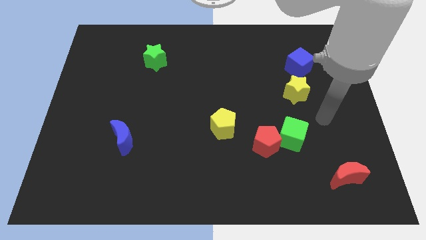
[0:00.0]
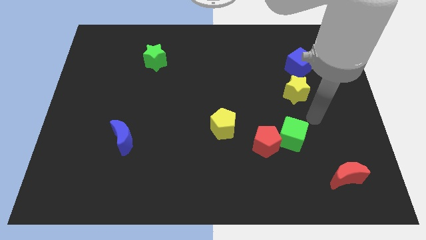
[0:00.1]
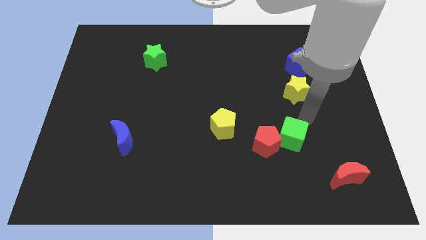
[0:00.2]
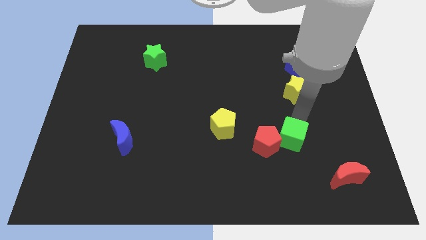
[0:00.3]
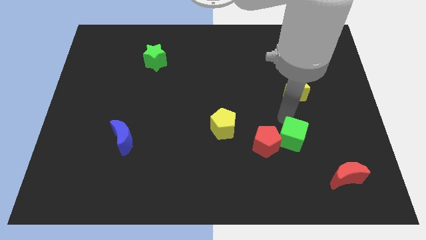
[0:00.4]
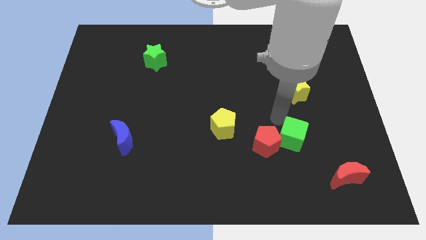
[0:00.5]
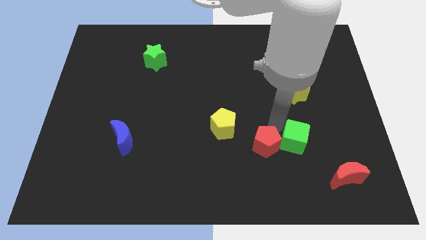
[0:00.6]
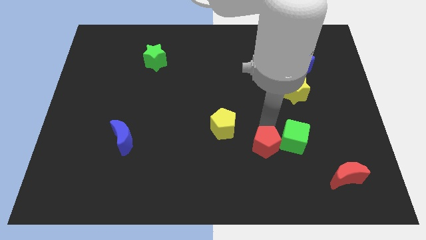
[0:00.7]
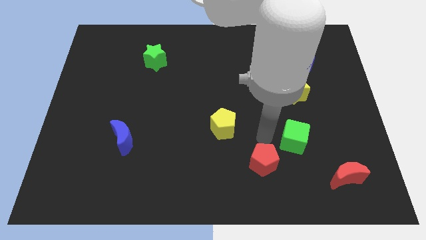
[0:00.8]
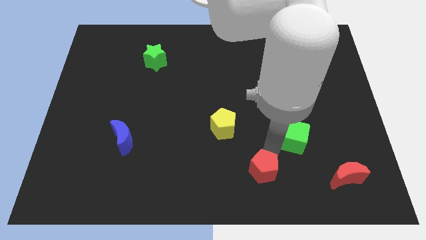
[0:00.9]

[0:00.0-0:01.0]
move the green cube away from the red pentagon

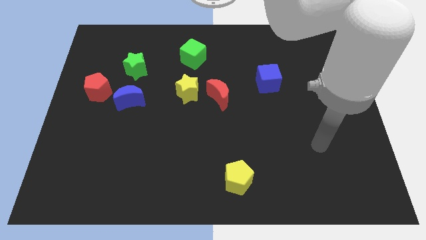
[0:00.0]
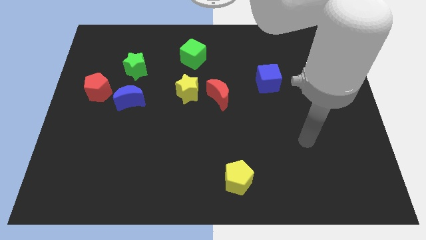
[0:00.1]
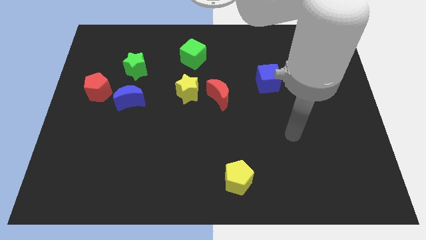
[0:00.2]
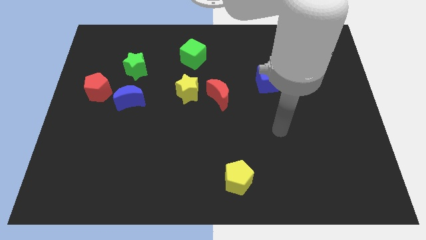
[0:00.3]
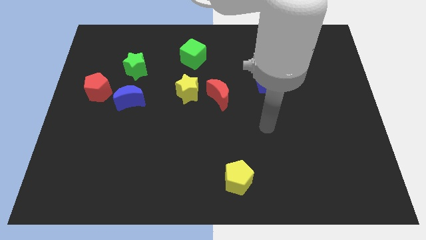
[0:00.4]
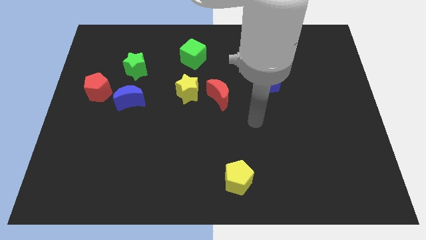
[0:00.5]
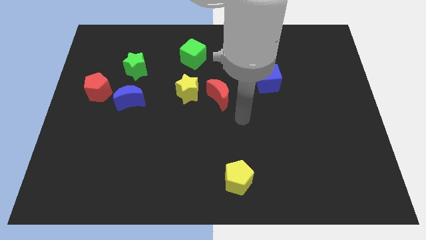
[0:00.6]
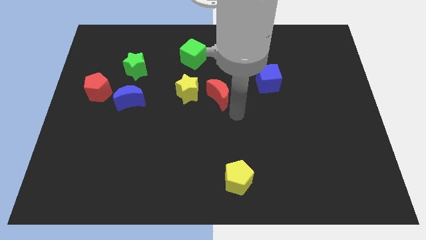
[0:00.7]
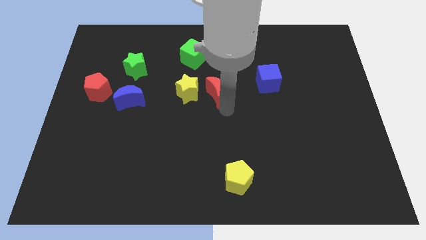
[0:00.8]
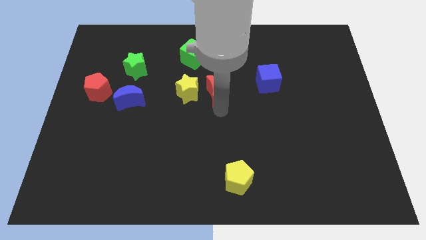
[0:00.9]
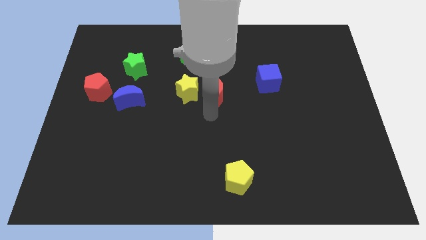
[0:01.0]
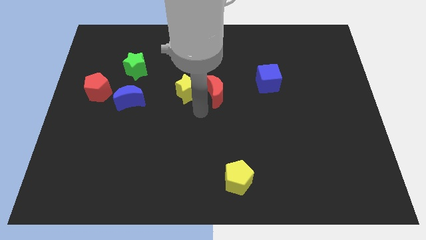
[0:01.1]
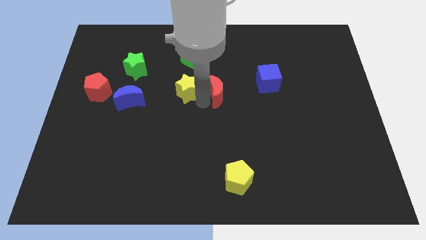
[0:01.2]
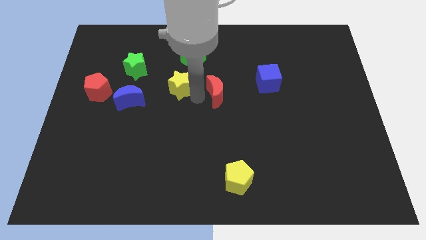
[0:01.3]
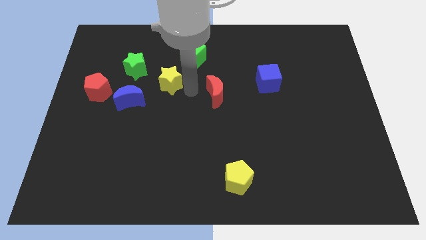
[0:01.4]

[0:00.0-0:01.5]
separate the red moon from the yellow star

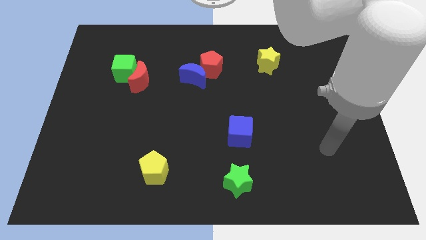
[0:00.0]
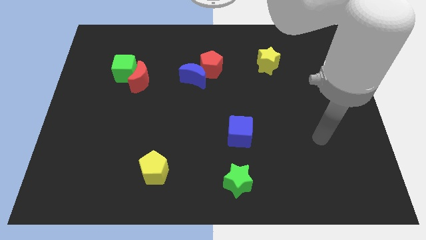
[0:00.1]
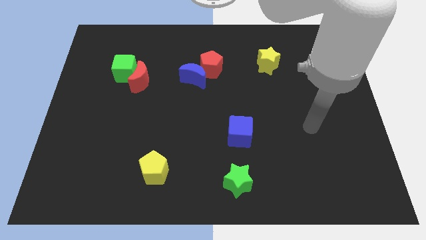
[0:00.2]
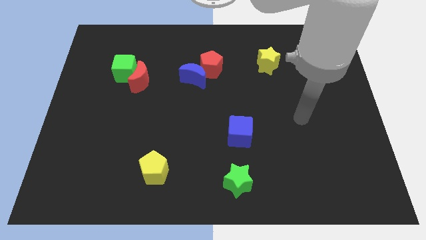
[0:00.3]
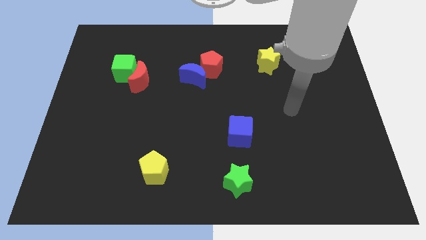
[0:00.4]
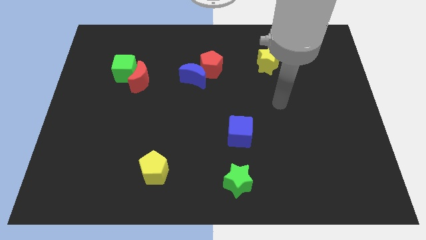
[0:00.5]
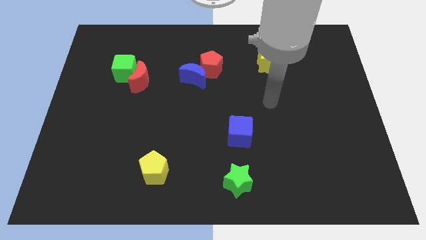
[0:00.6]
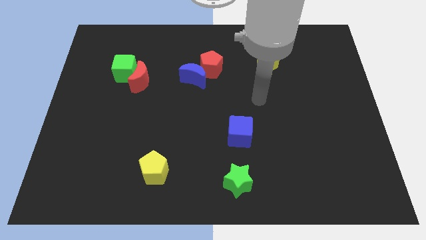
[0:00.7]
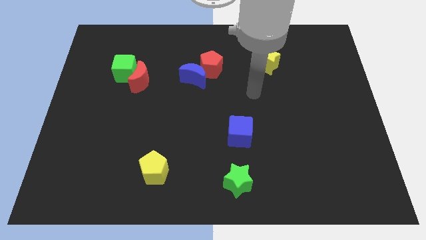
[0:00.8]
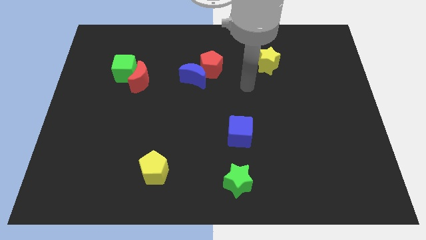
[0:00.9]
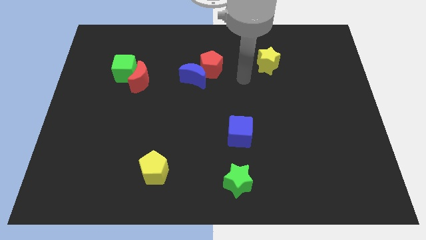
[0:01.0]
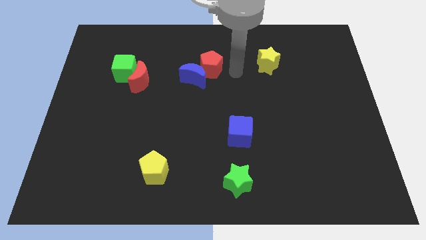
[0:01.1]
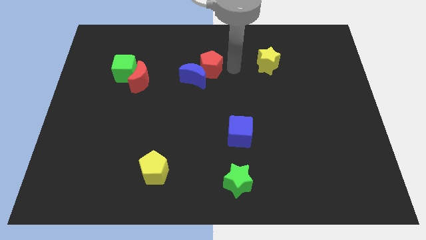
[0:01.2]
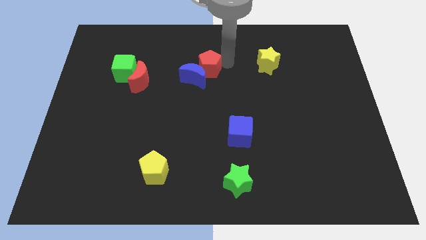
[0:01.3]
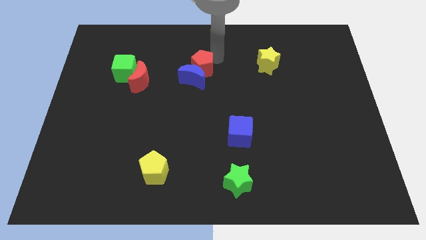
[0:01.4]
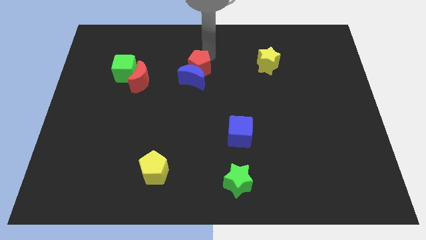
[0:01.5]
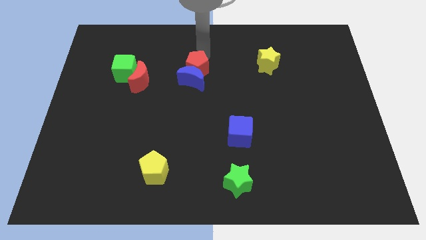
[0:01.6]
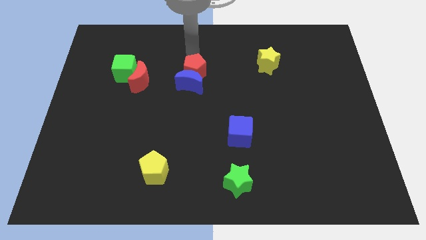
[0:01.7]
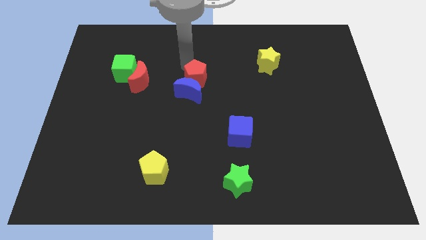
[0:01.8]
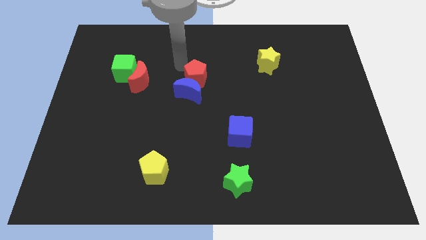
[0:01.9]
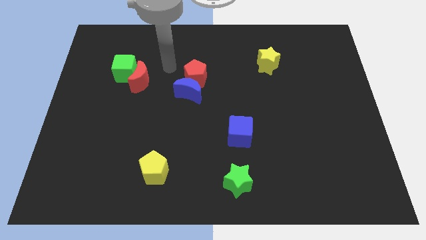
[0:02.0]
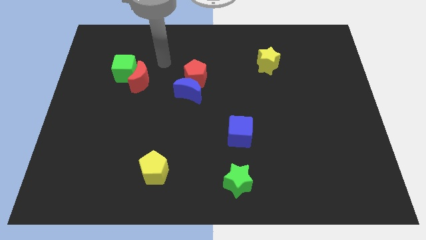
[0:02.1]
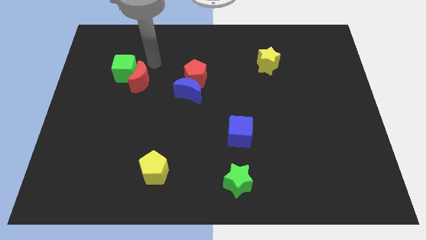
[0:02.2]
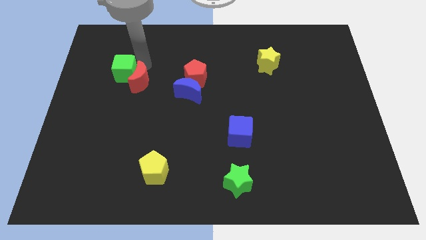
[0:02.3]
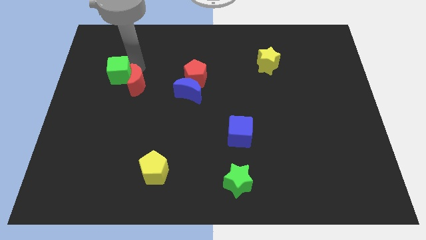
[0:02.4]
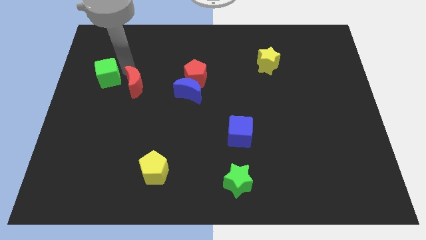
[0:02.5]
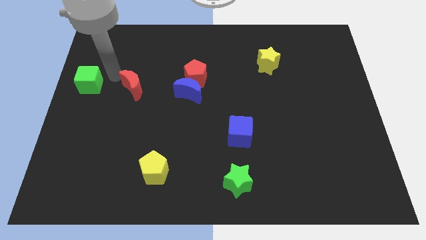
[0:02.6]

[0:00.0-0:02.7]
separate the red moon from the green cube

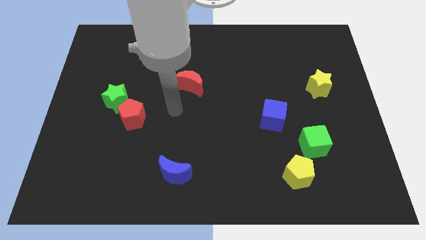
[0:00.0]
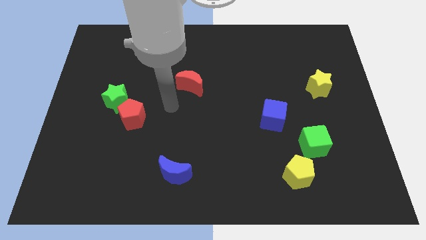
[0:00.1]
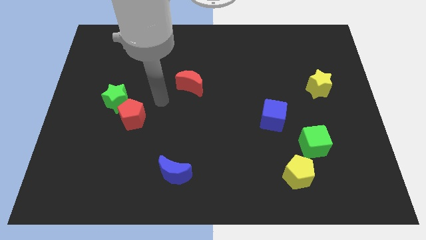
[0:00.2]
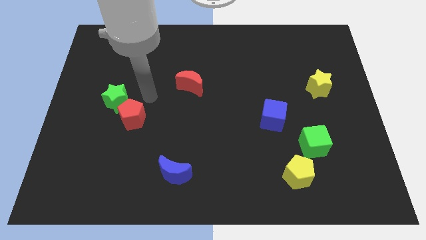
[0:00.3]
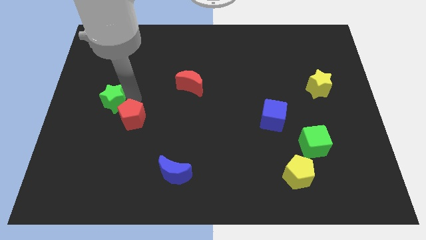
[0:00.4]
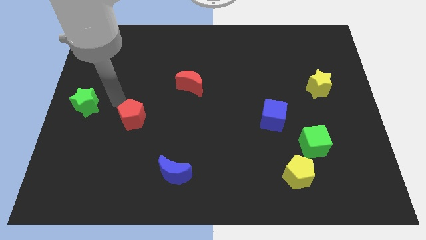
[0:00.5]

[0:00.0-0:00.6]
separate the red pentagon from the green star

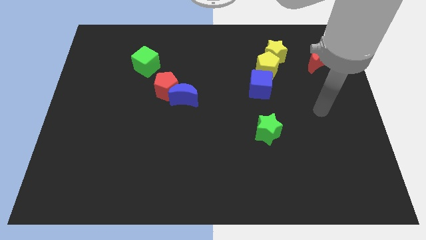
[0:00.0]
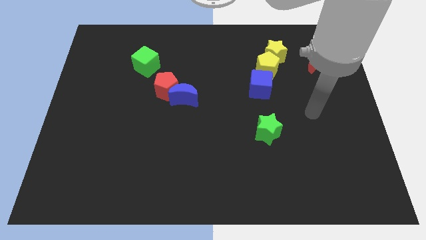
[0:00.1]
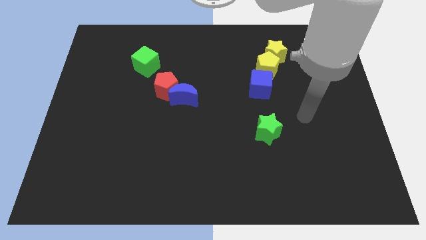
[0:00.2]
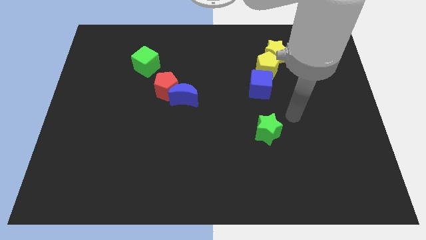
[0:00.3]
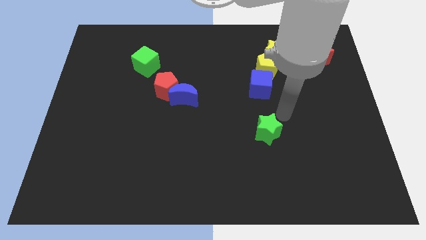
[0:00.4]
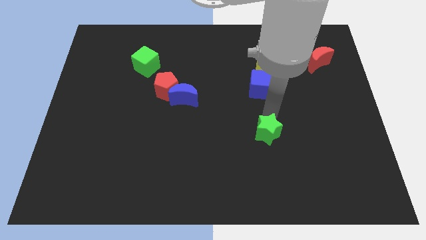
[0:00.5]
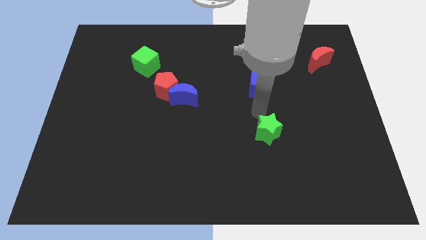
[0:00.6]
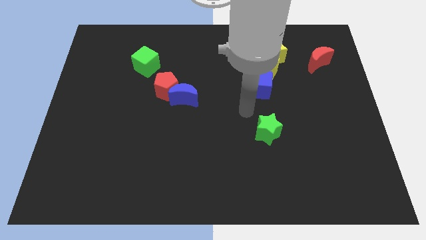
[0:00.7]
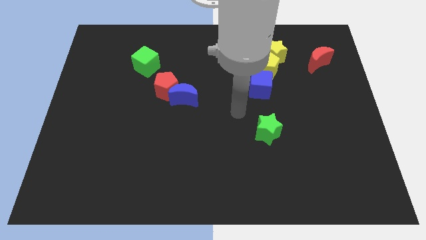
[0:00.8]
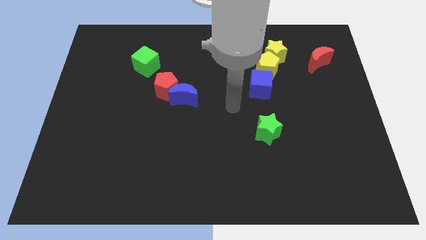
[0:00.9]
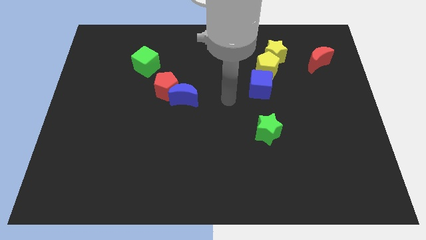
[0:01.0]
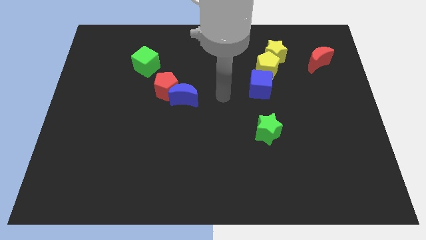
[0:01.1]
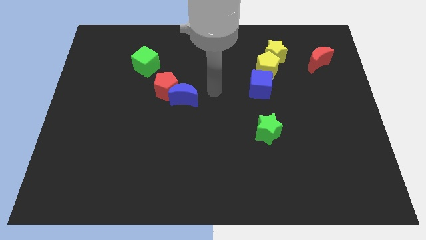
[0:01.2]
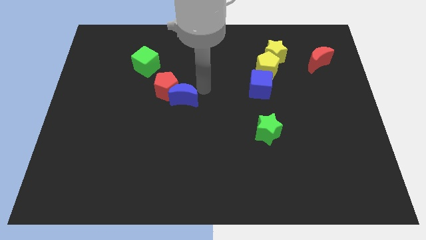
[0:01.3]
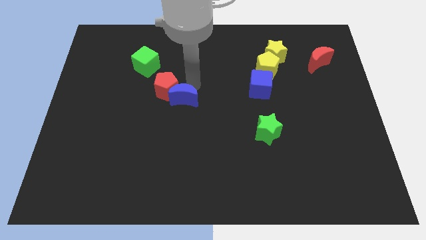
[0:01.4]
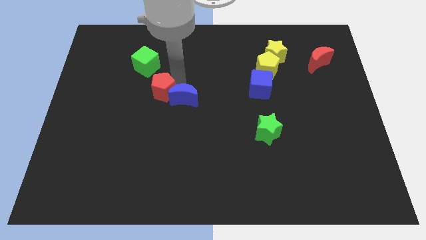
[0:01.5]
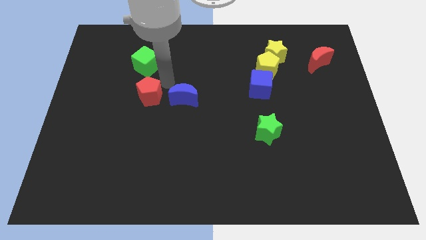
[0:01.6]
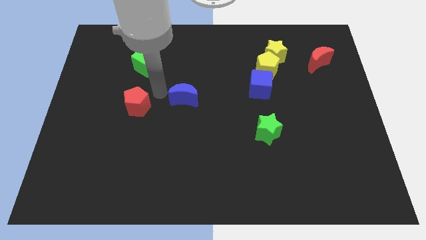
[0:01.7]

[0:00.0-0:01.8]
pull the blue moon apart from the red pentagon

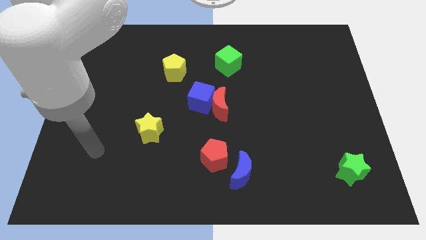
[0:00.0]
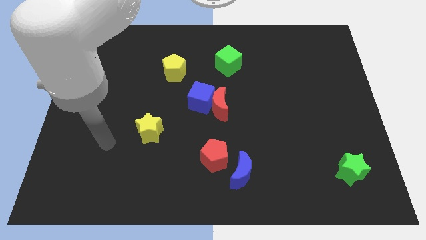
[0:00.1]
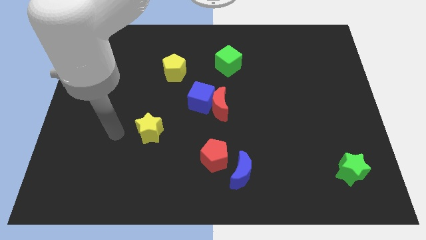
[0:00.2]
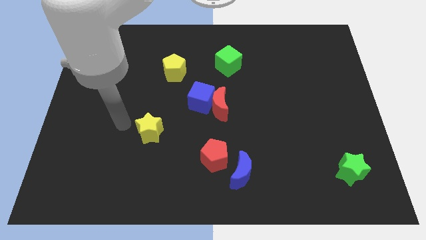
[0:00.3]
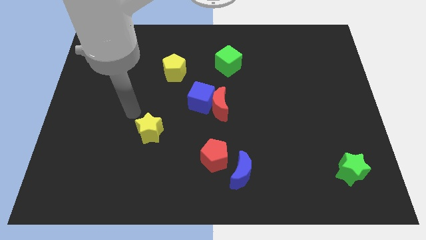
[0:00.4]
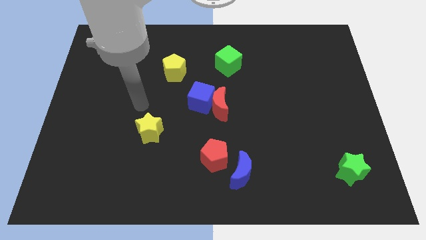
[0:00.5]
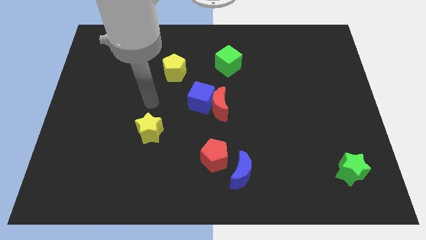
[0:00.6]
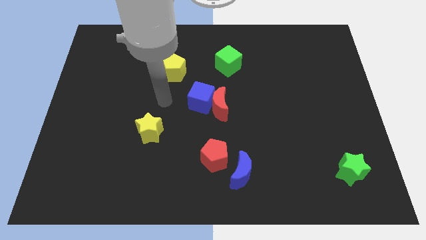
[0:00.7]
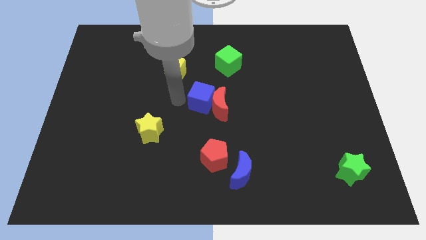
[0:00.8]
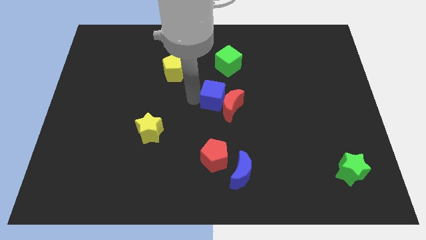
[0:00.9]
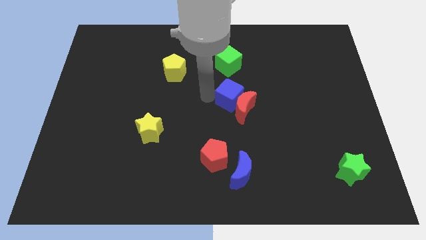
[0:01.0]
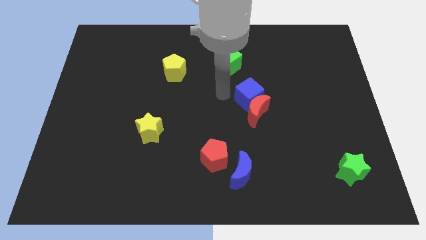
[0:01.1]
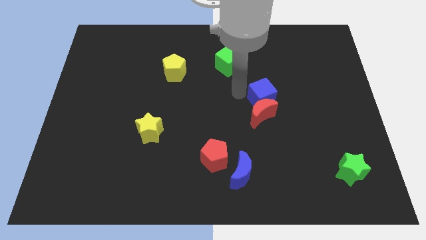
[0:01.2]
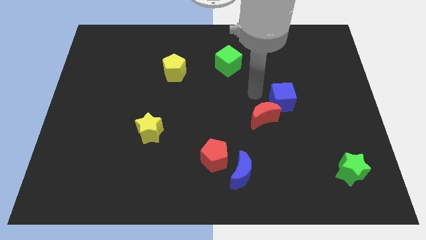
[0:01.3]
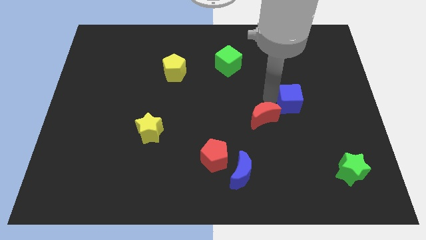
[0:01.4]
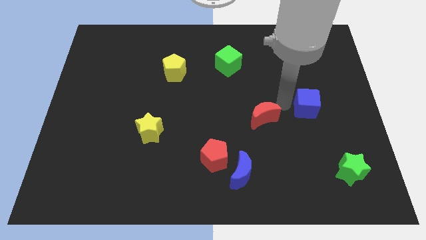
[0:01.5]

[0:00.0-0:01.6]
separate the red moon from the blue cube

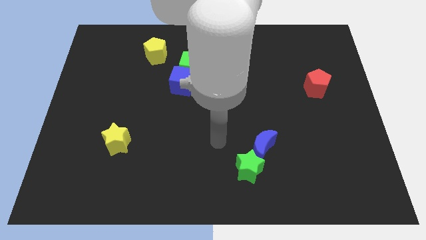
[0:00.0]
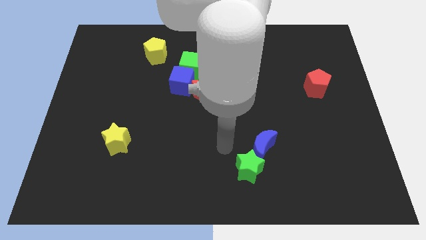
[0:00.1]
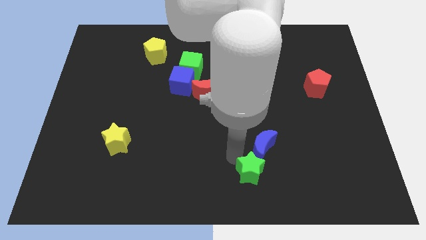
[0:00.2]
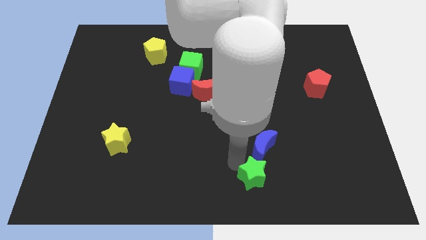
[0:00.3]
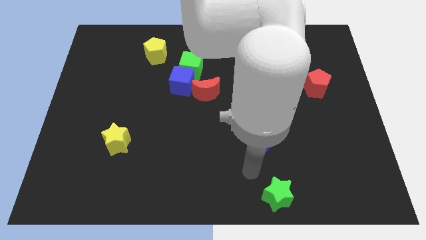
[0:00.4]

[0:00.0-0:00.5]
separate the blue moon from the green star
